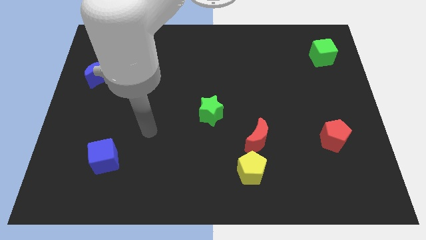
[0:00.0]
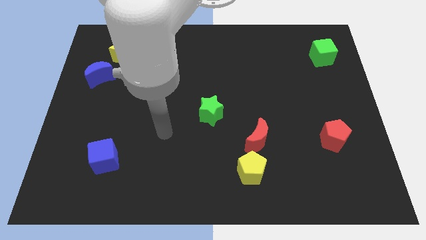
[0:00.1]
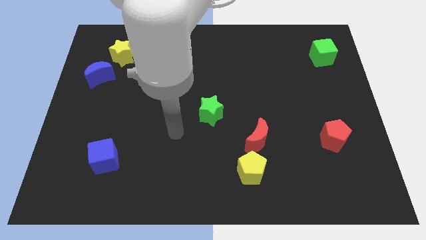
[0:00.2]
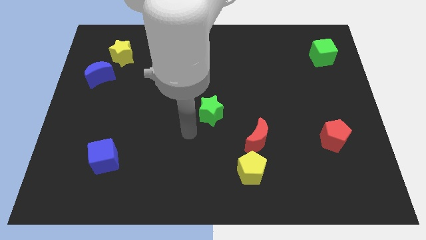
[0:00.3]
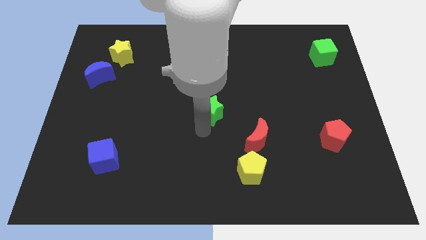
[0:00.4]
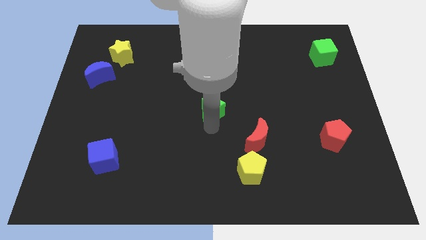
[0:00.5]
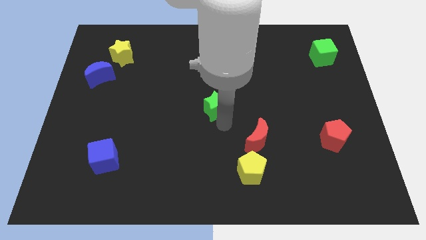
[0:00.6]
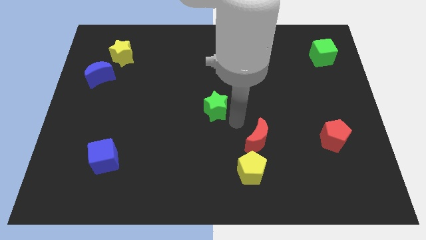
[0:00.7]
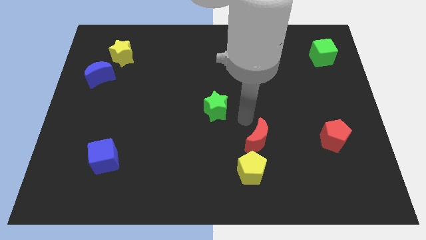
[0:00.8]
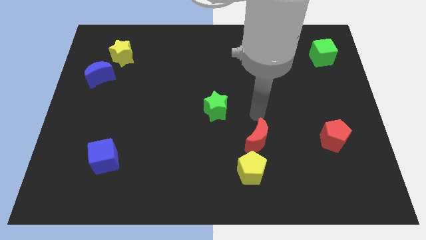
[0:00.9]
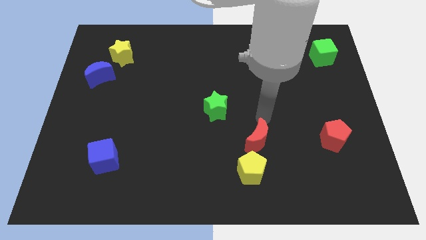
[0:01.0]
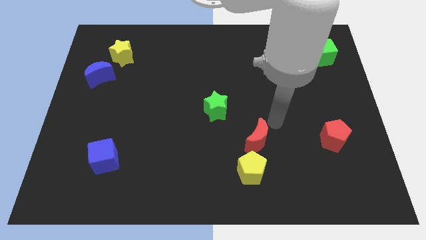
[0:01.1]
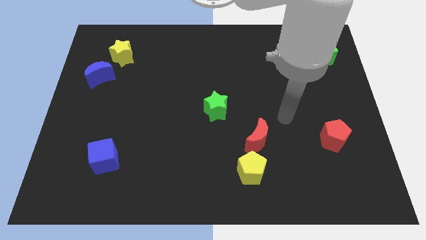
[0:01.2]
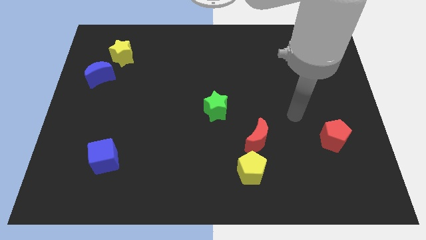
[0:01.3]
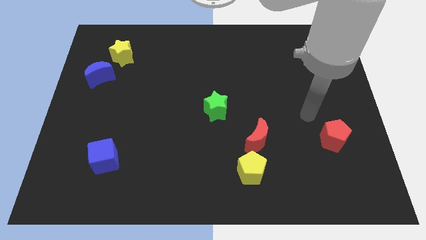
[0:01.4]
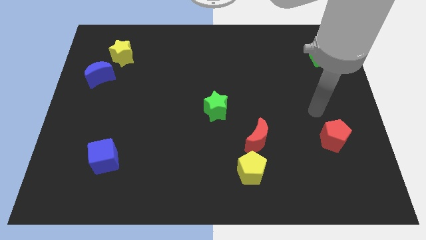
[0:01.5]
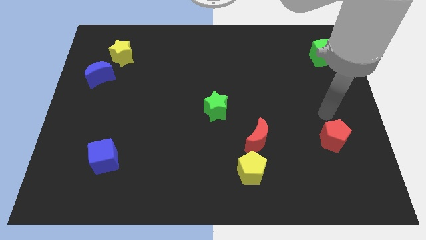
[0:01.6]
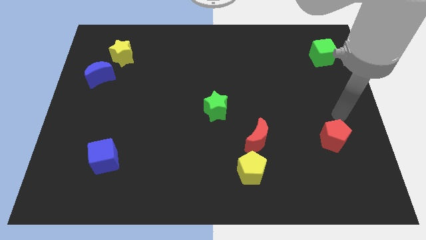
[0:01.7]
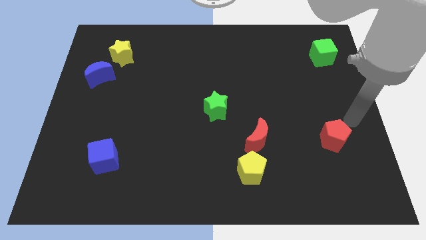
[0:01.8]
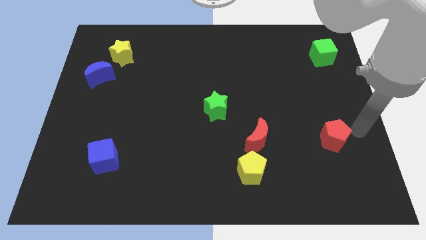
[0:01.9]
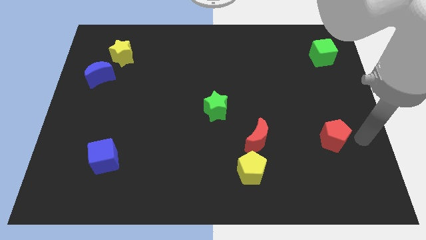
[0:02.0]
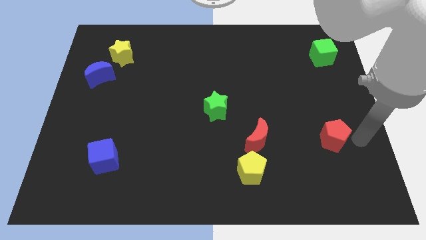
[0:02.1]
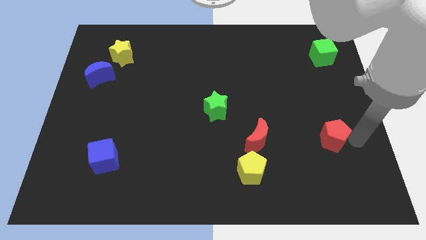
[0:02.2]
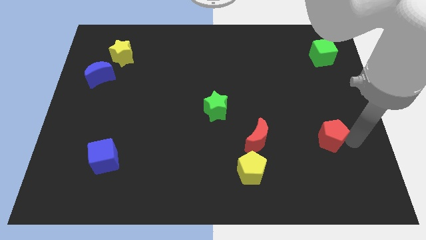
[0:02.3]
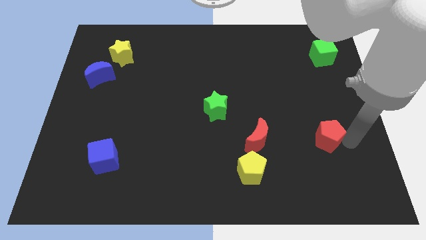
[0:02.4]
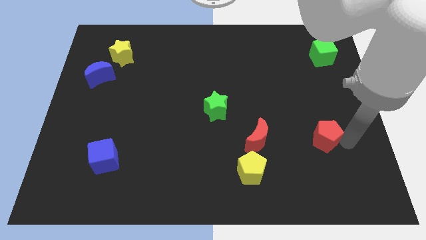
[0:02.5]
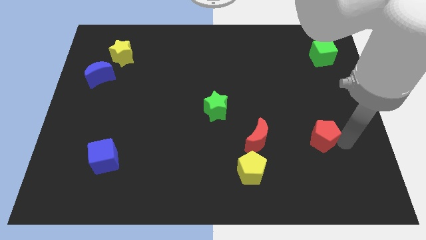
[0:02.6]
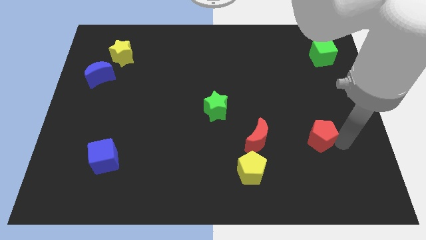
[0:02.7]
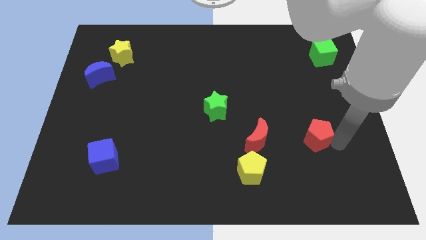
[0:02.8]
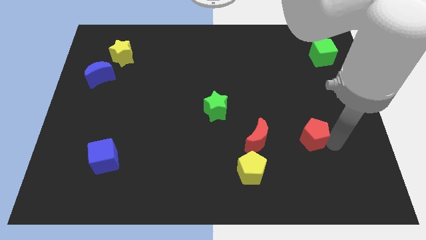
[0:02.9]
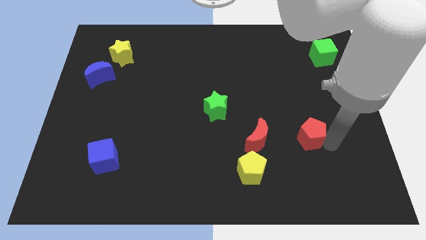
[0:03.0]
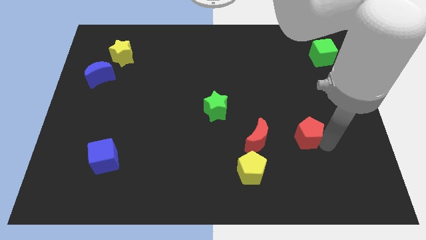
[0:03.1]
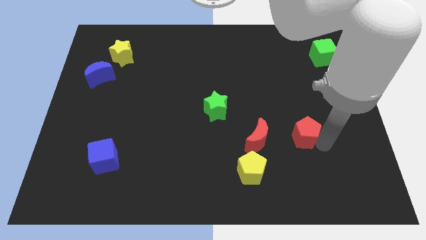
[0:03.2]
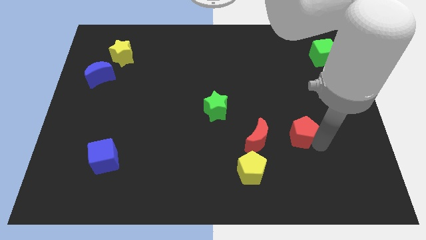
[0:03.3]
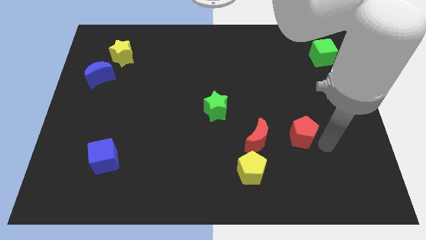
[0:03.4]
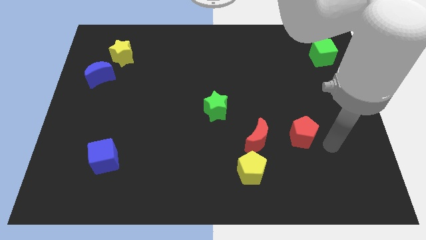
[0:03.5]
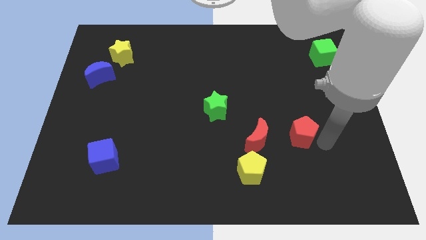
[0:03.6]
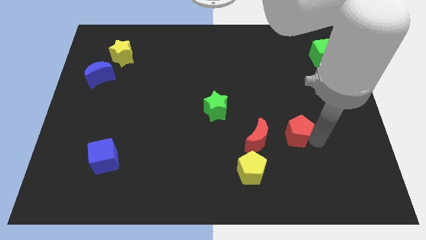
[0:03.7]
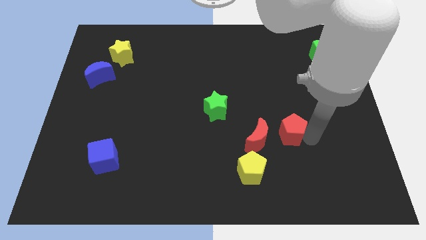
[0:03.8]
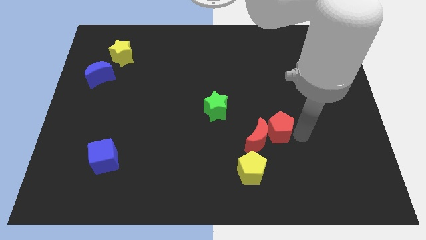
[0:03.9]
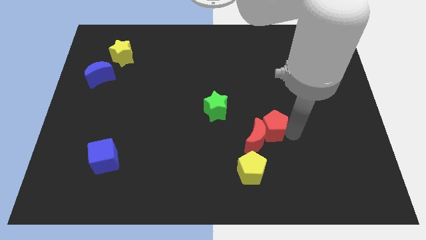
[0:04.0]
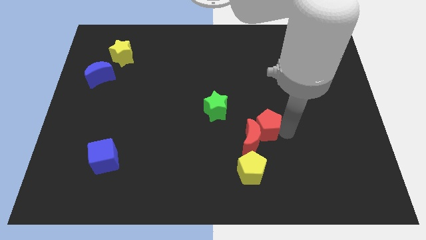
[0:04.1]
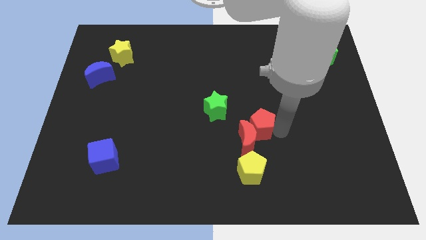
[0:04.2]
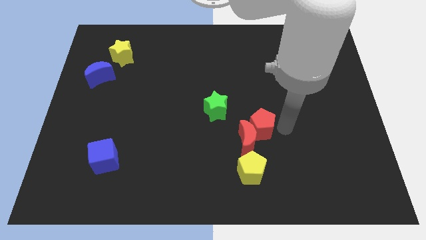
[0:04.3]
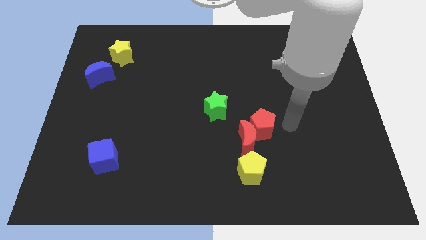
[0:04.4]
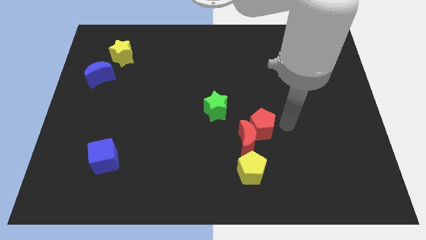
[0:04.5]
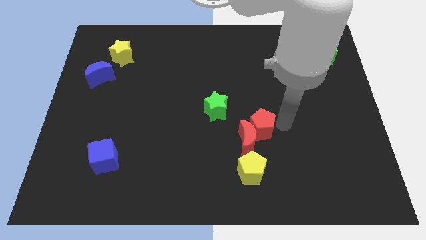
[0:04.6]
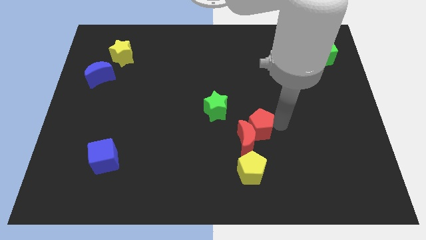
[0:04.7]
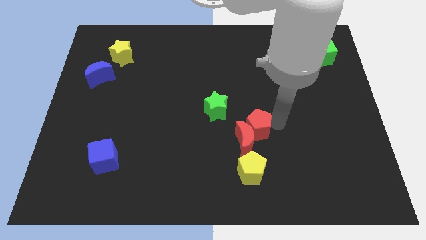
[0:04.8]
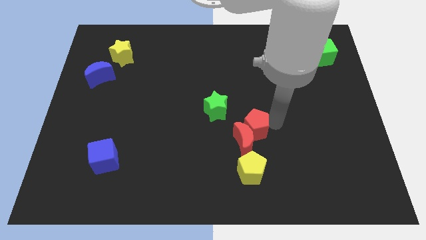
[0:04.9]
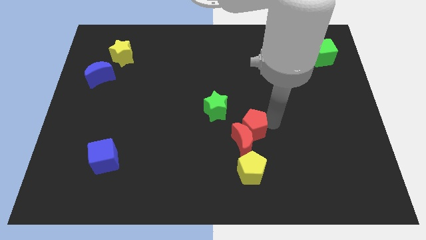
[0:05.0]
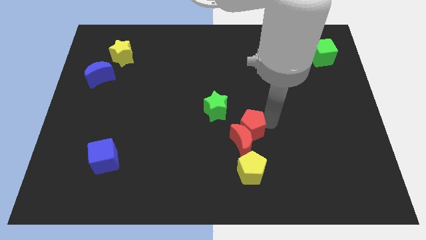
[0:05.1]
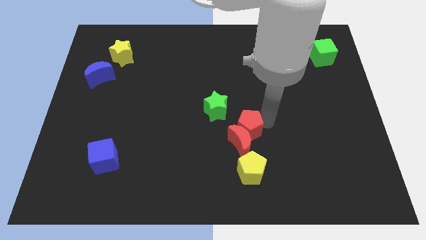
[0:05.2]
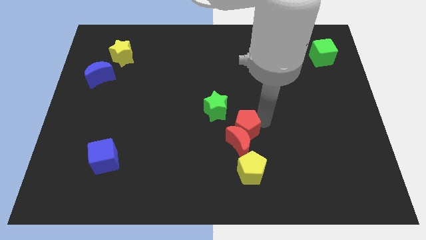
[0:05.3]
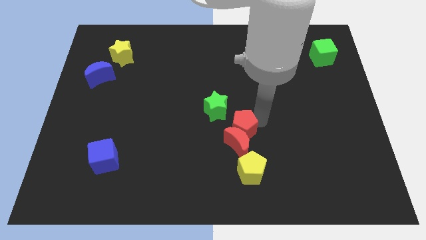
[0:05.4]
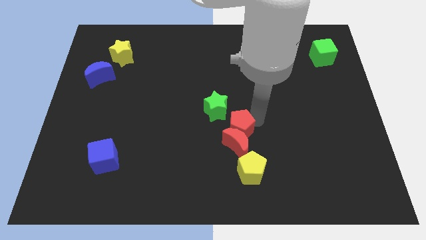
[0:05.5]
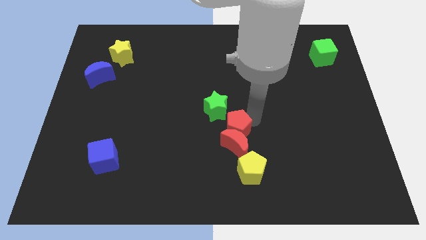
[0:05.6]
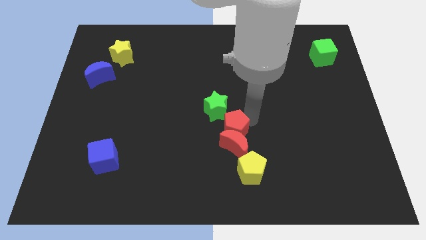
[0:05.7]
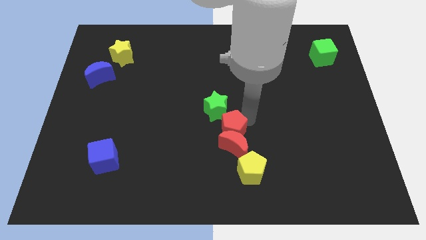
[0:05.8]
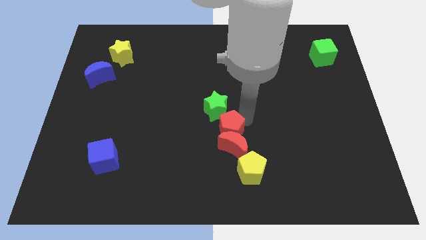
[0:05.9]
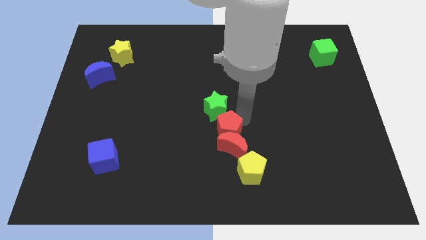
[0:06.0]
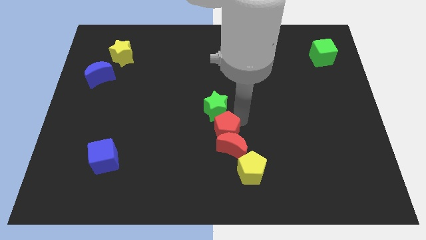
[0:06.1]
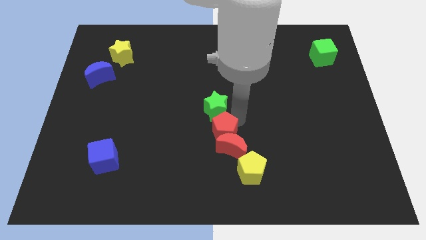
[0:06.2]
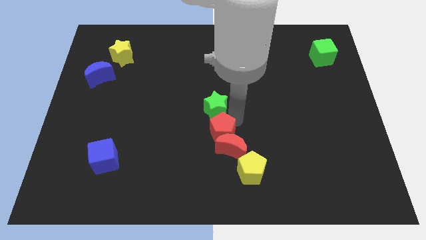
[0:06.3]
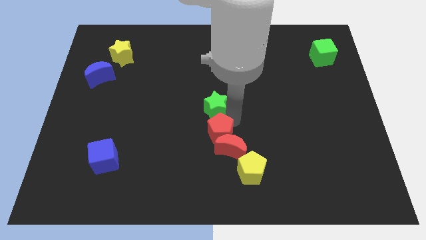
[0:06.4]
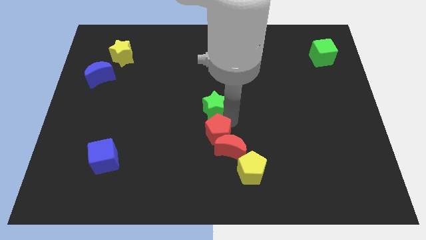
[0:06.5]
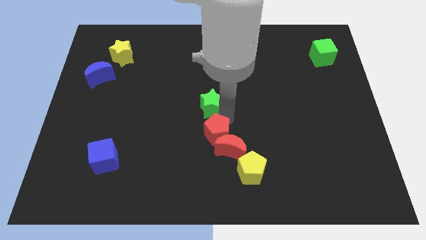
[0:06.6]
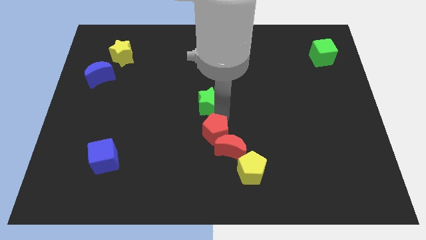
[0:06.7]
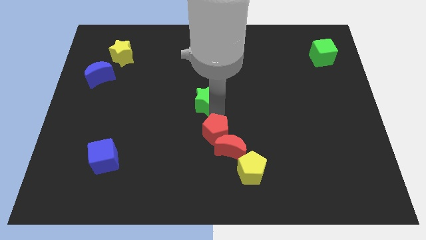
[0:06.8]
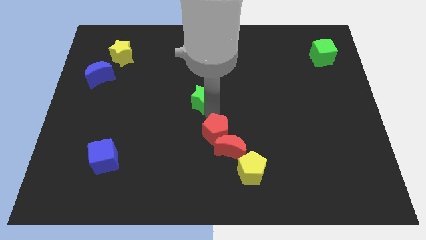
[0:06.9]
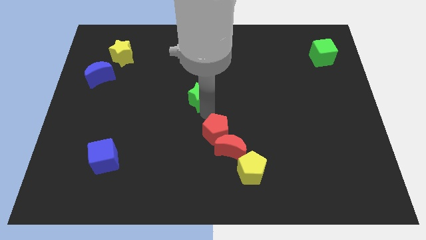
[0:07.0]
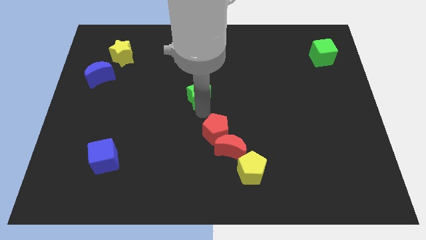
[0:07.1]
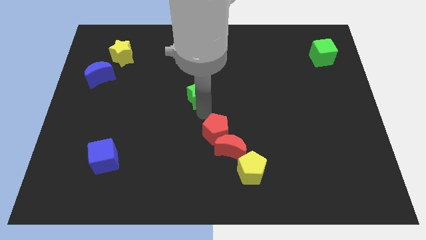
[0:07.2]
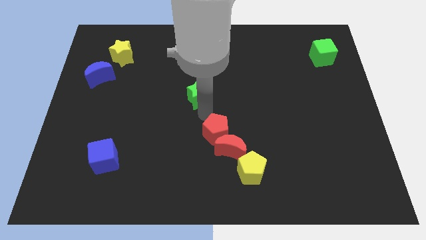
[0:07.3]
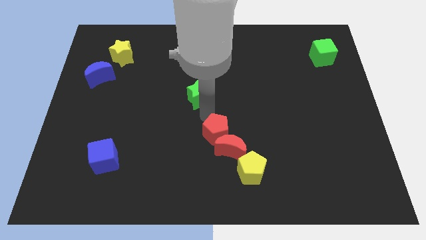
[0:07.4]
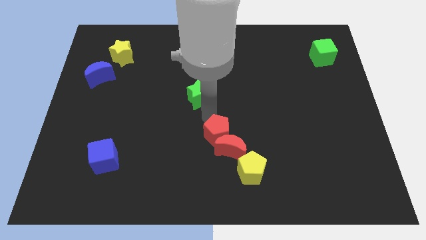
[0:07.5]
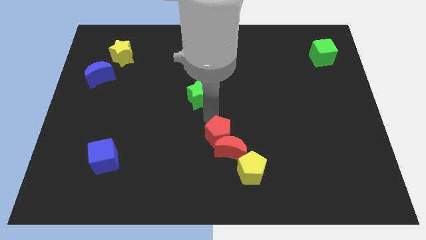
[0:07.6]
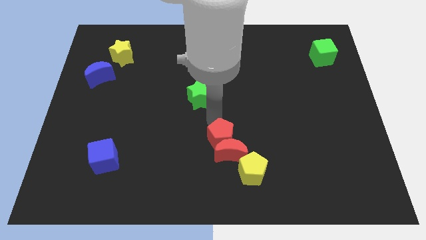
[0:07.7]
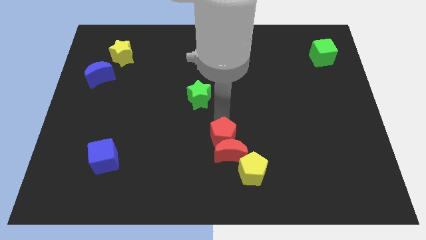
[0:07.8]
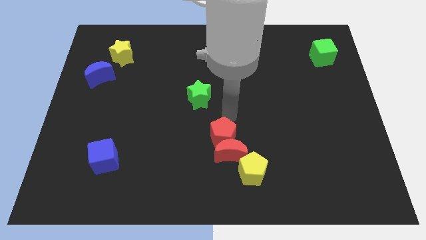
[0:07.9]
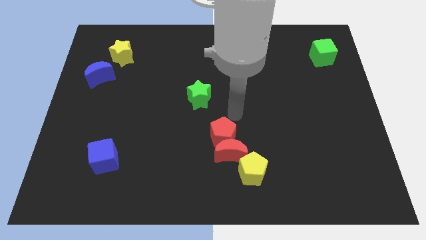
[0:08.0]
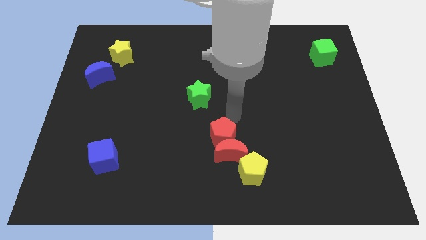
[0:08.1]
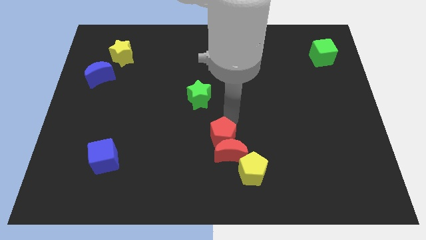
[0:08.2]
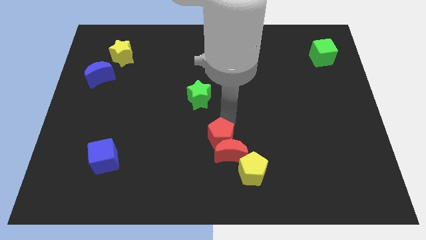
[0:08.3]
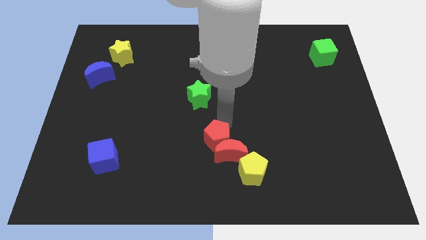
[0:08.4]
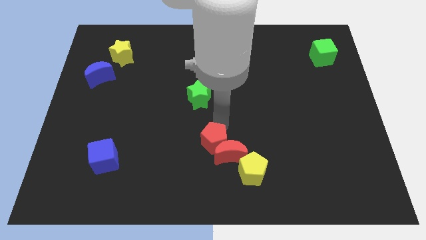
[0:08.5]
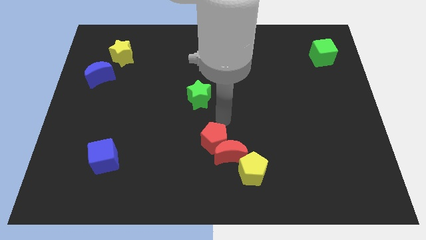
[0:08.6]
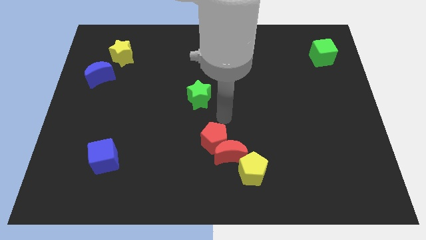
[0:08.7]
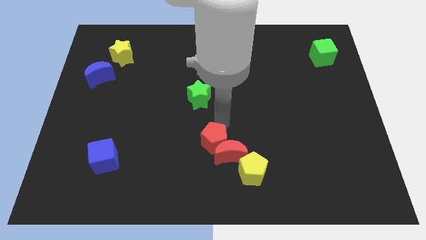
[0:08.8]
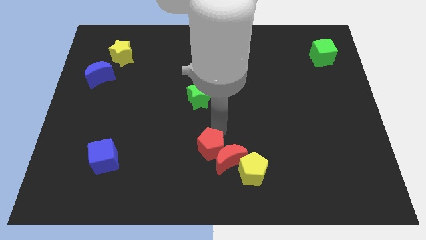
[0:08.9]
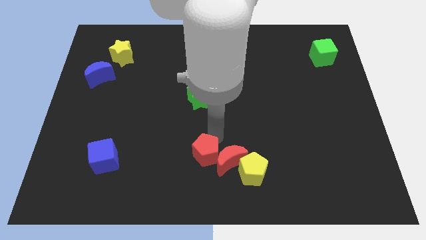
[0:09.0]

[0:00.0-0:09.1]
push the red pentagon to the left side of the yellow pentagon
